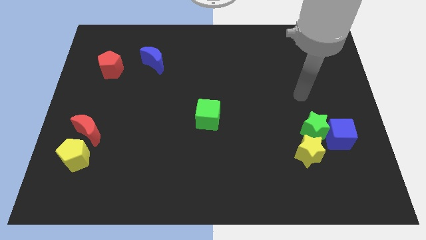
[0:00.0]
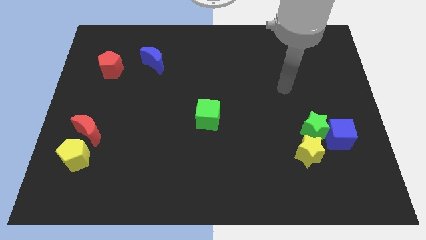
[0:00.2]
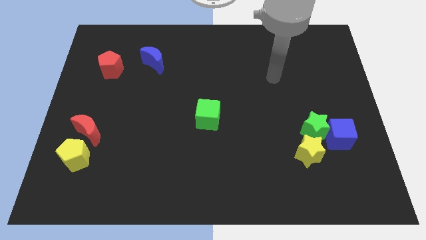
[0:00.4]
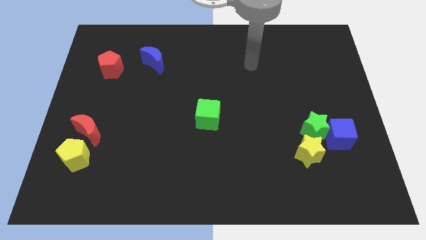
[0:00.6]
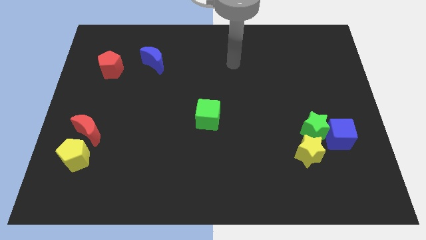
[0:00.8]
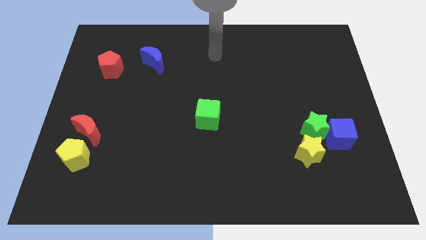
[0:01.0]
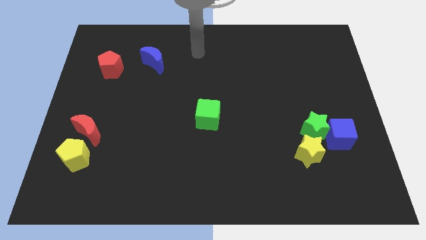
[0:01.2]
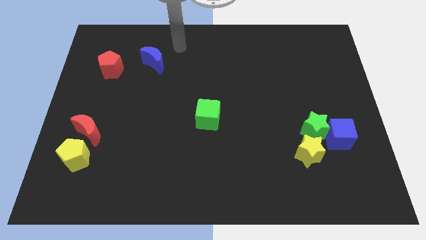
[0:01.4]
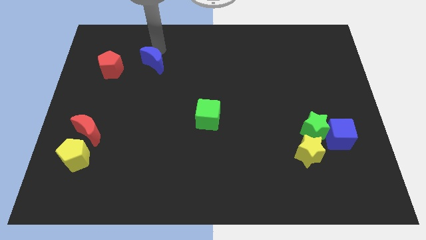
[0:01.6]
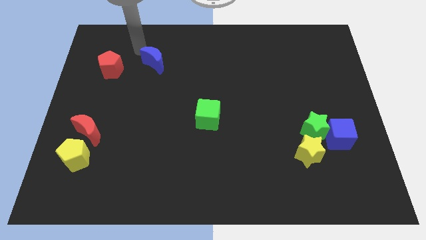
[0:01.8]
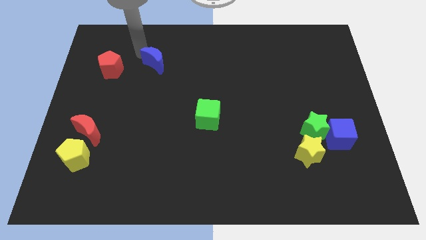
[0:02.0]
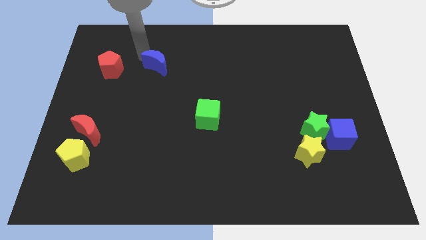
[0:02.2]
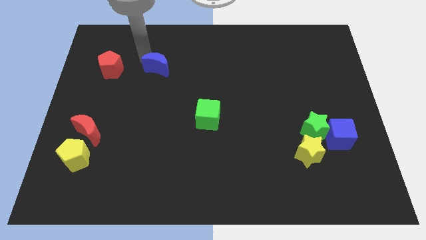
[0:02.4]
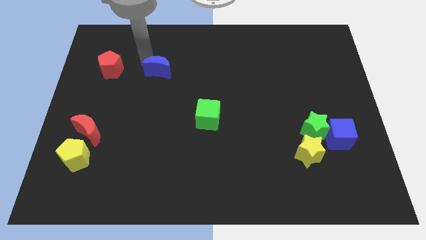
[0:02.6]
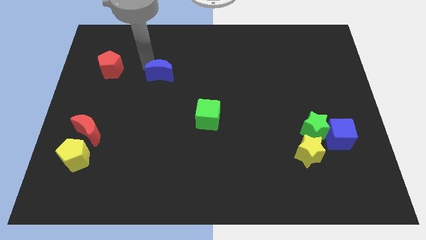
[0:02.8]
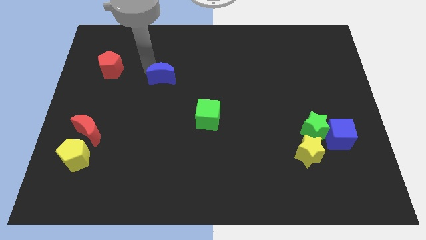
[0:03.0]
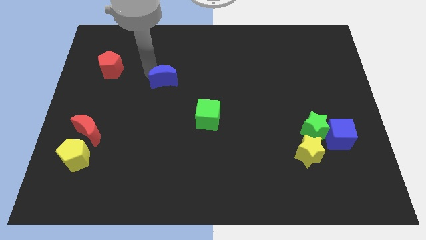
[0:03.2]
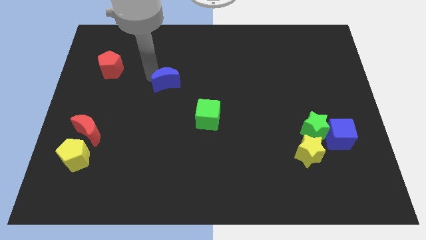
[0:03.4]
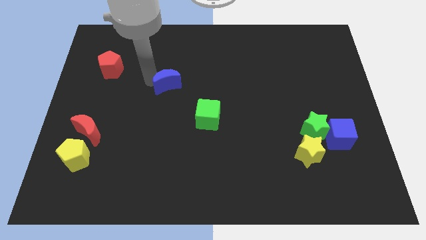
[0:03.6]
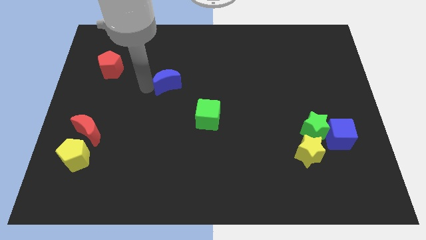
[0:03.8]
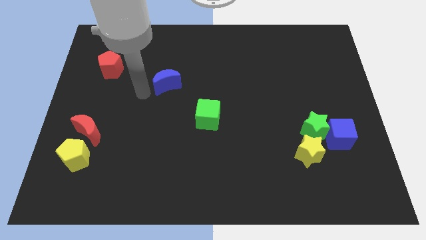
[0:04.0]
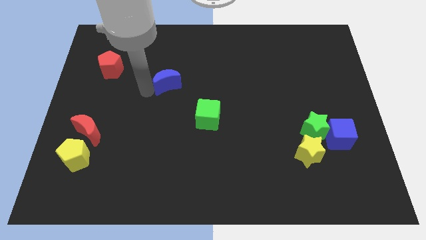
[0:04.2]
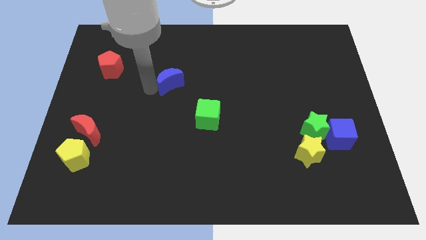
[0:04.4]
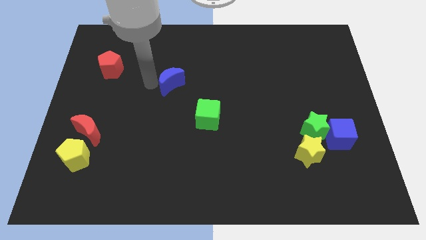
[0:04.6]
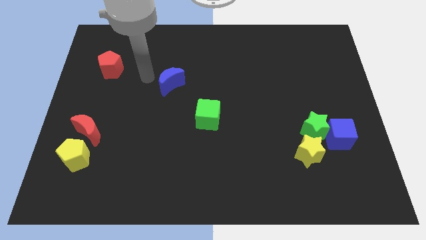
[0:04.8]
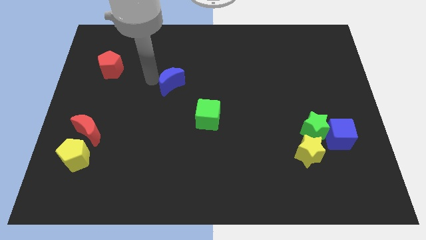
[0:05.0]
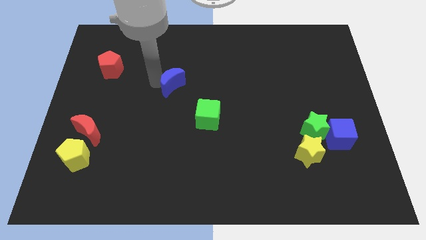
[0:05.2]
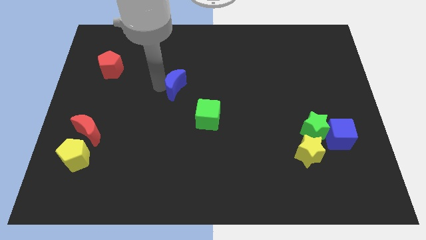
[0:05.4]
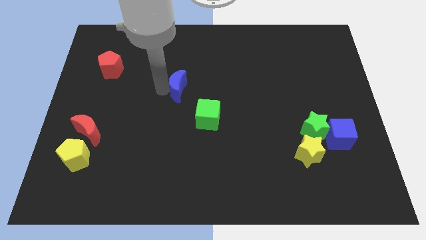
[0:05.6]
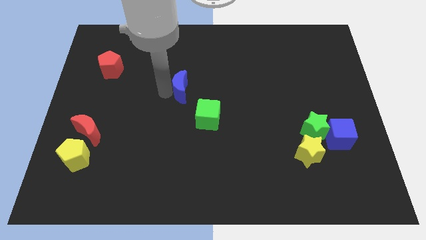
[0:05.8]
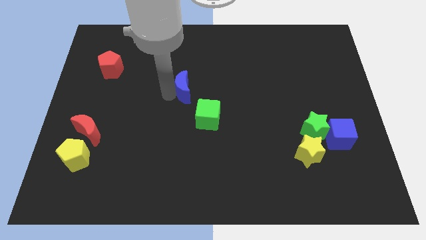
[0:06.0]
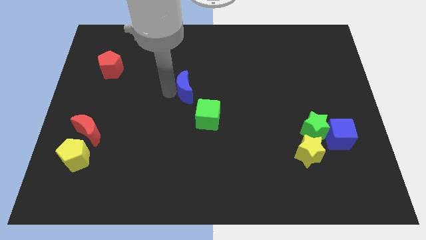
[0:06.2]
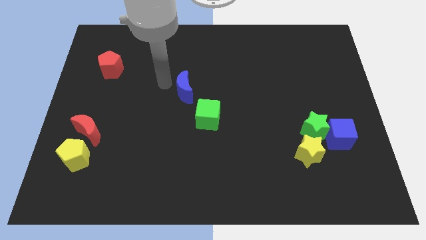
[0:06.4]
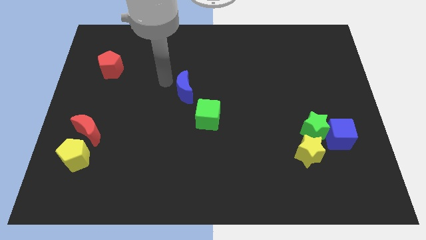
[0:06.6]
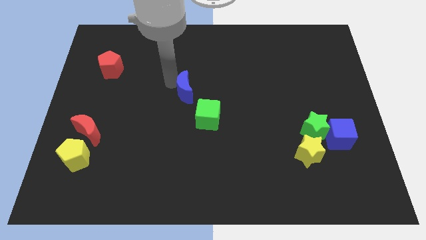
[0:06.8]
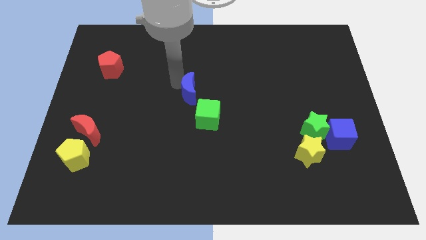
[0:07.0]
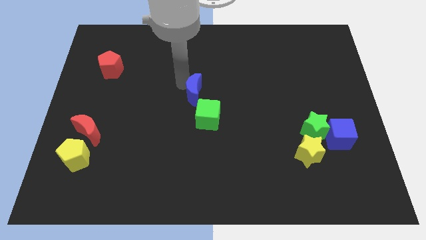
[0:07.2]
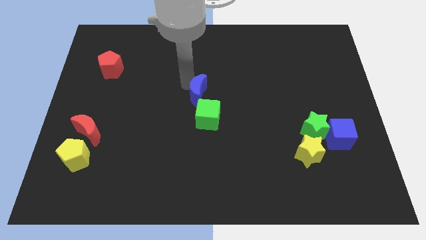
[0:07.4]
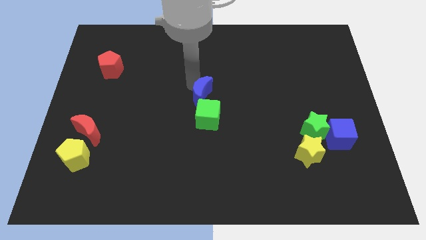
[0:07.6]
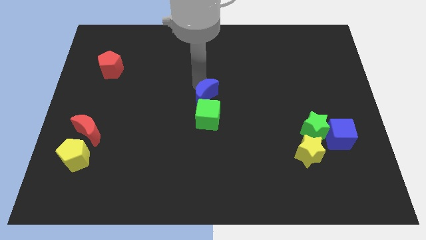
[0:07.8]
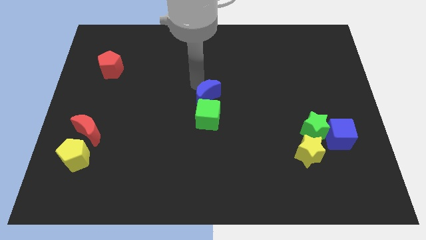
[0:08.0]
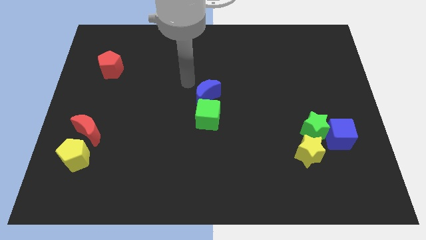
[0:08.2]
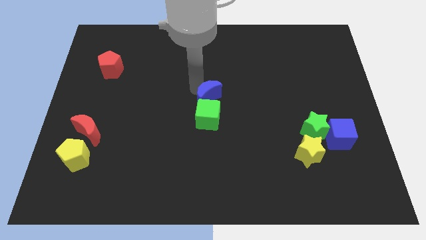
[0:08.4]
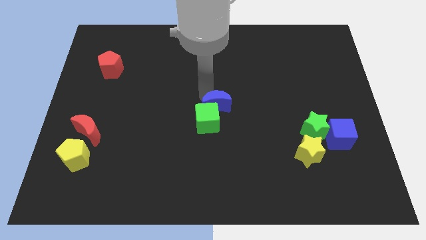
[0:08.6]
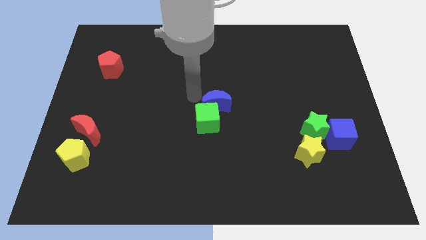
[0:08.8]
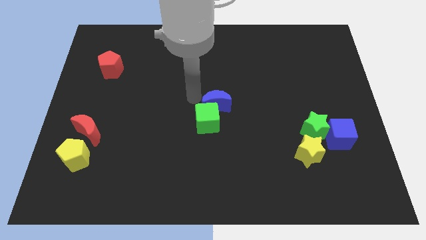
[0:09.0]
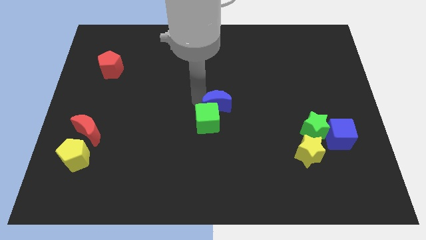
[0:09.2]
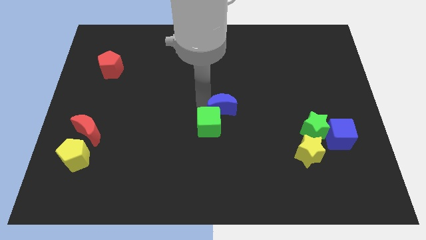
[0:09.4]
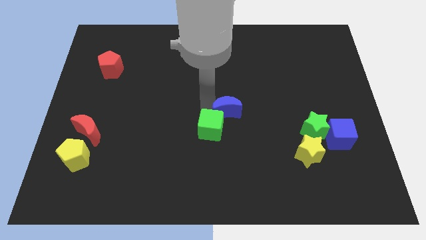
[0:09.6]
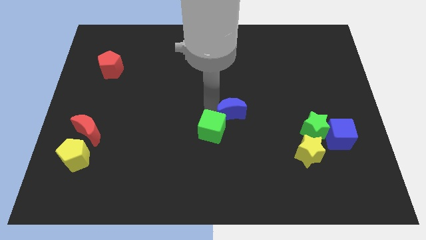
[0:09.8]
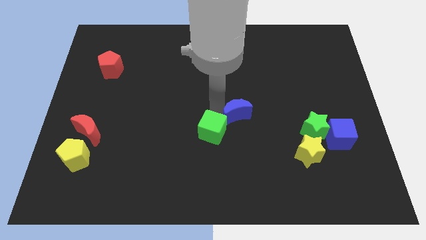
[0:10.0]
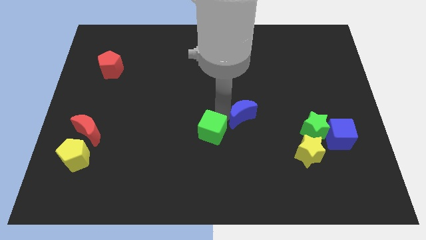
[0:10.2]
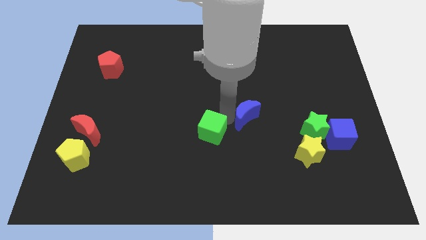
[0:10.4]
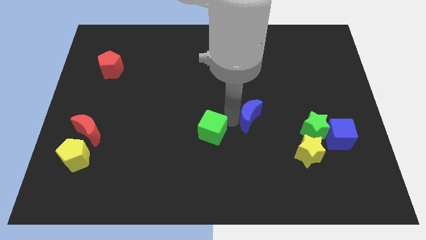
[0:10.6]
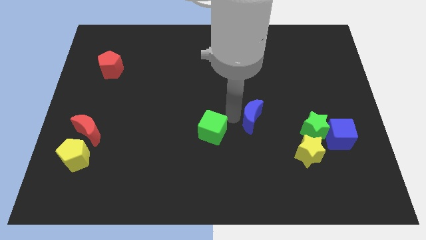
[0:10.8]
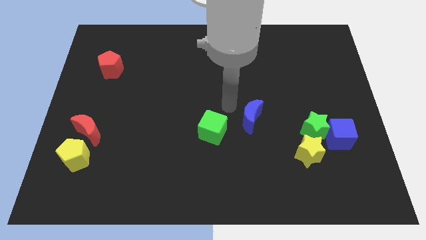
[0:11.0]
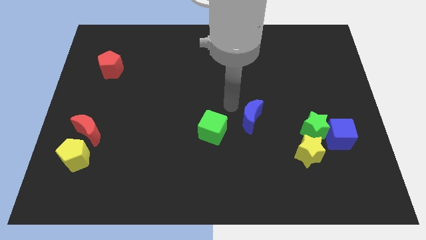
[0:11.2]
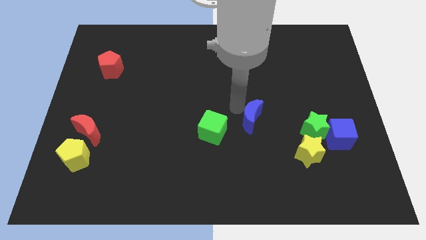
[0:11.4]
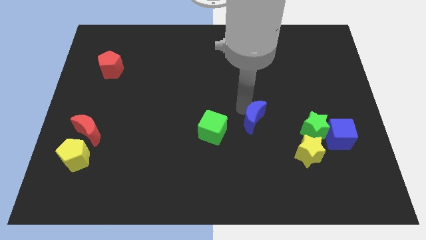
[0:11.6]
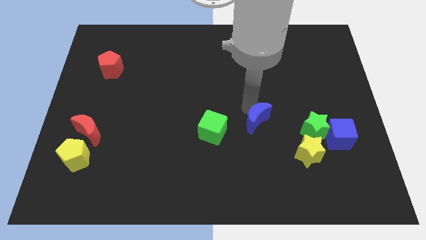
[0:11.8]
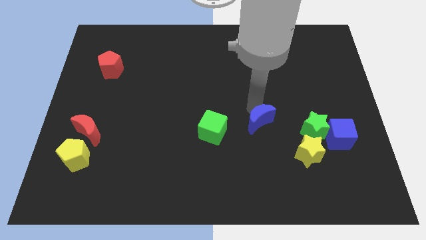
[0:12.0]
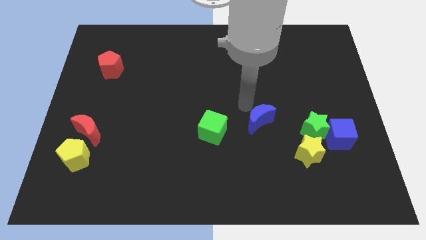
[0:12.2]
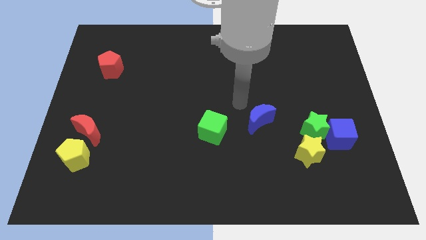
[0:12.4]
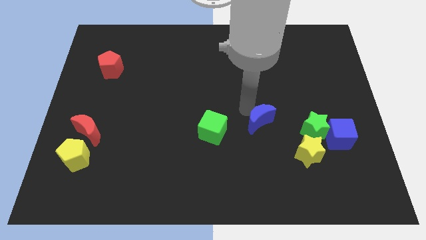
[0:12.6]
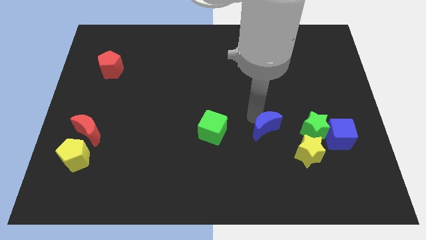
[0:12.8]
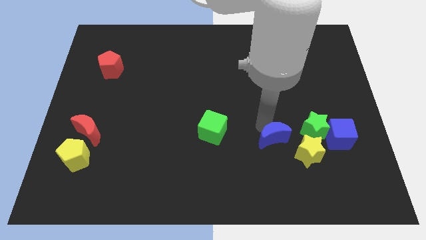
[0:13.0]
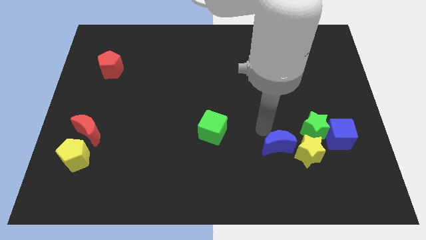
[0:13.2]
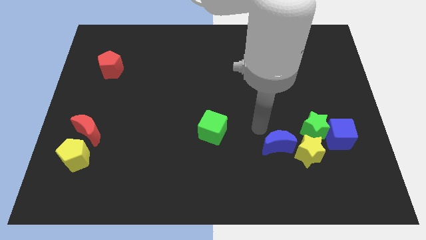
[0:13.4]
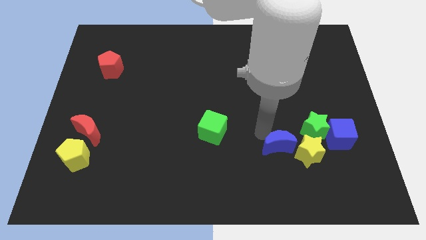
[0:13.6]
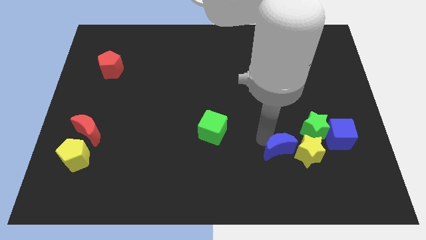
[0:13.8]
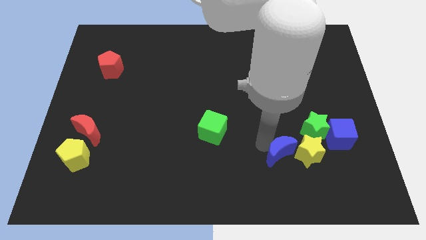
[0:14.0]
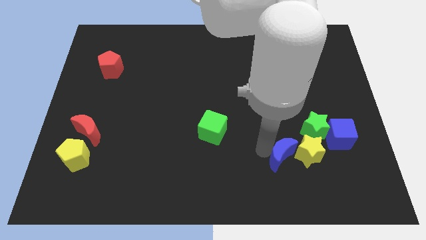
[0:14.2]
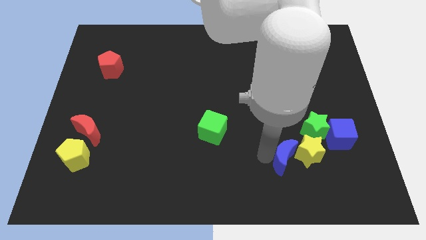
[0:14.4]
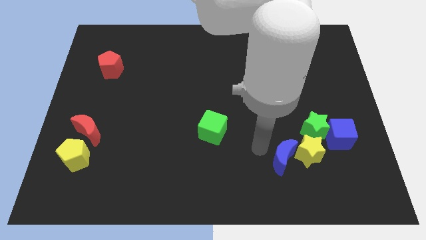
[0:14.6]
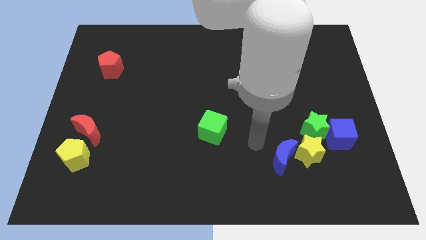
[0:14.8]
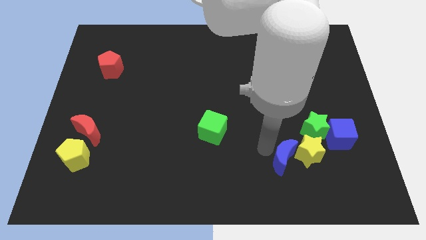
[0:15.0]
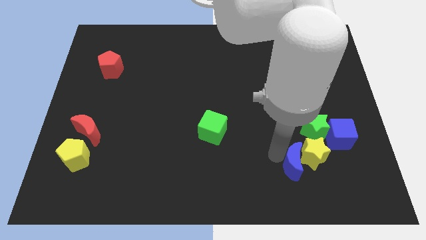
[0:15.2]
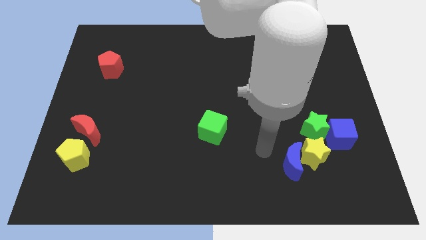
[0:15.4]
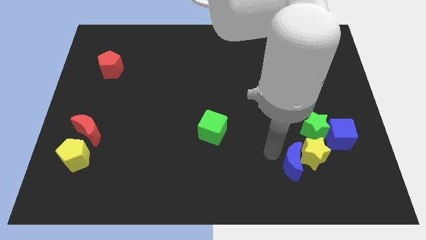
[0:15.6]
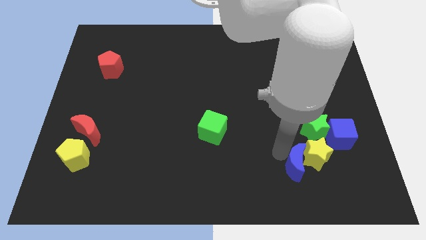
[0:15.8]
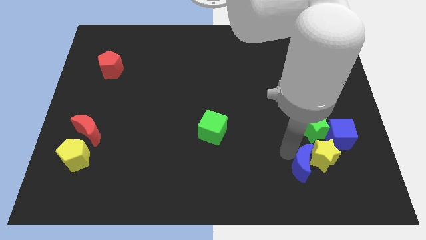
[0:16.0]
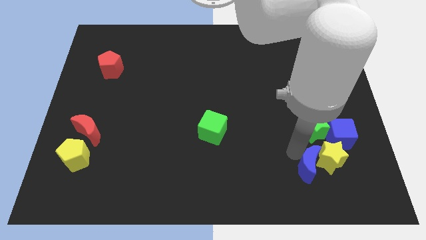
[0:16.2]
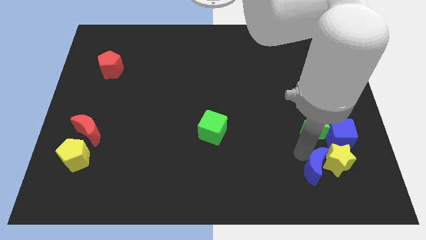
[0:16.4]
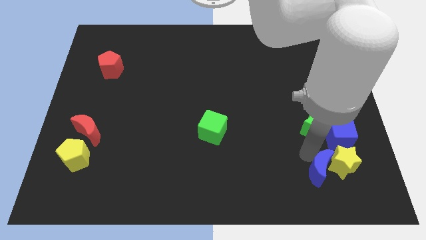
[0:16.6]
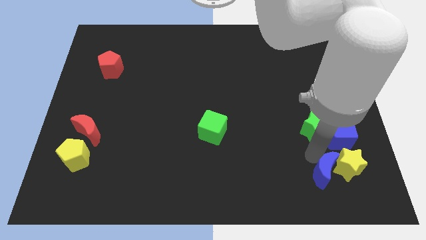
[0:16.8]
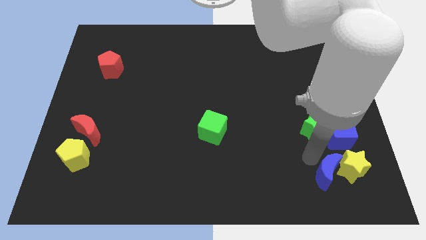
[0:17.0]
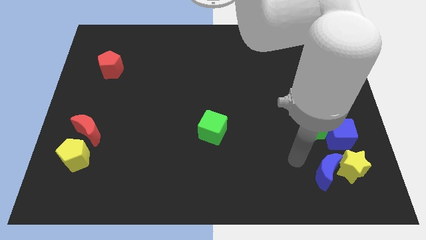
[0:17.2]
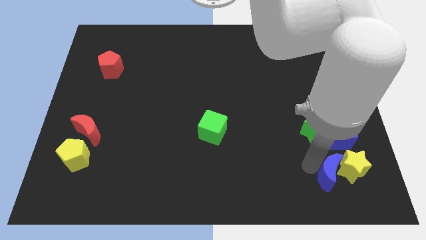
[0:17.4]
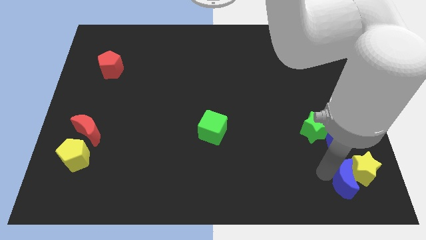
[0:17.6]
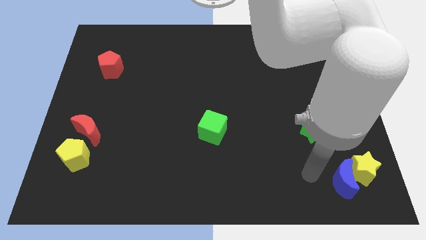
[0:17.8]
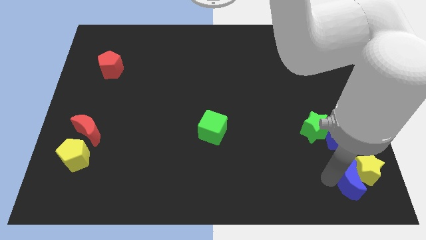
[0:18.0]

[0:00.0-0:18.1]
move the blue moon to the bottom right
